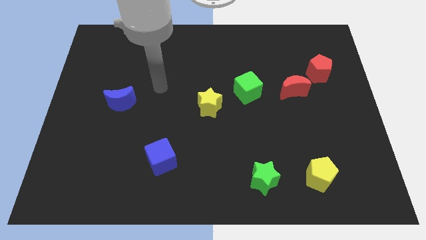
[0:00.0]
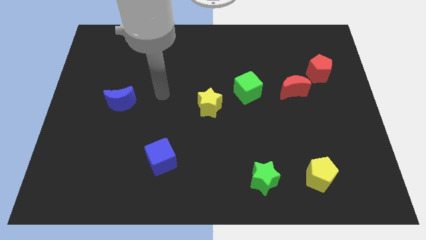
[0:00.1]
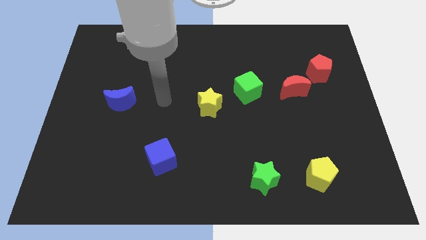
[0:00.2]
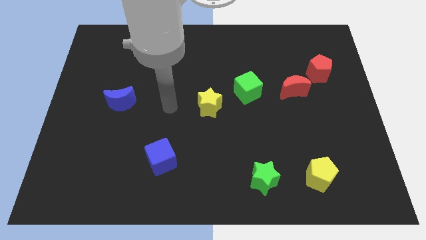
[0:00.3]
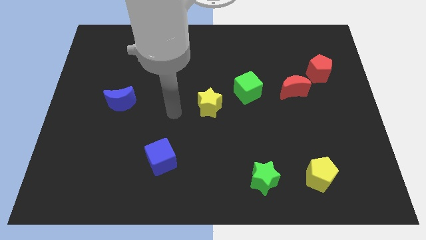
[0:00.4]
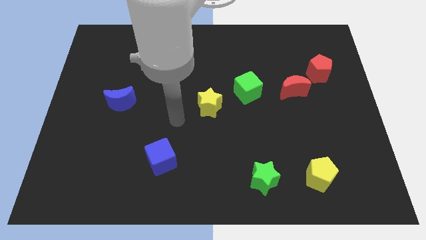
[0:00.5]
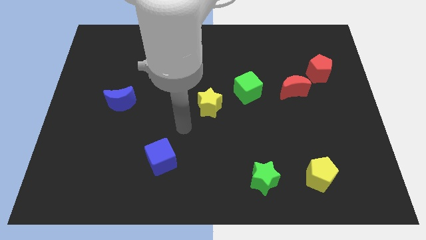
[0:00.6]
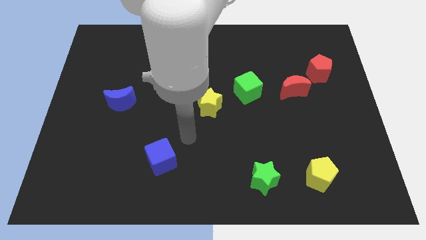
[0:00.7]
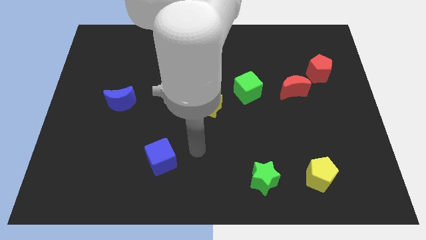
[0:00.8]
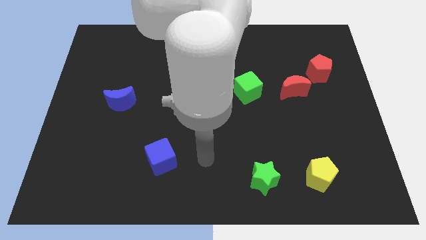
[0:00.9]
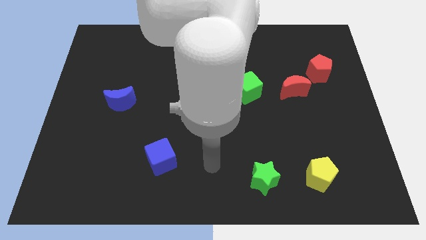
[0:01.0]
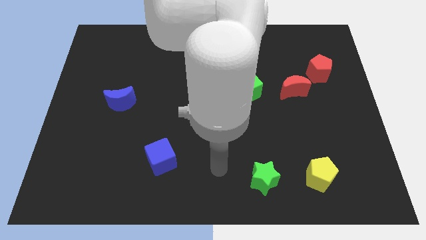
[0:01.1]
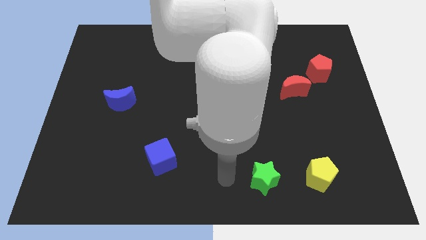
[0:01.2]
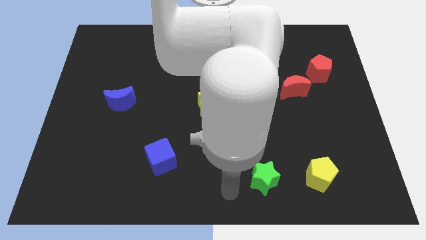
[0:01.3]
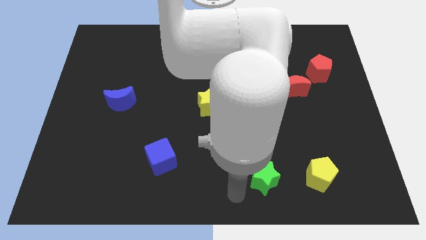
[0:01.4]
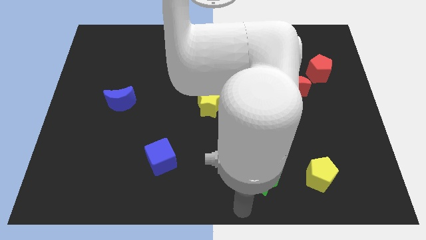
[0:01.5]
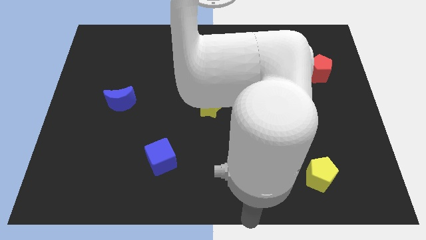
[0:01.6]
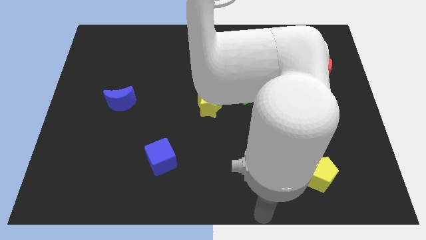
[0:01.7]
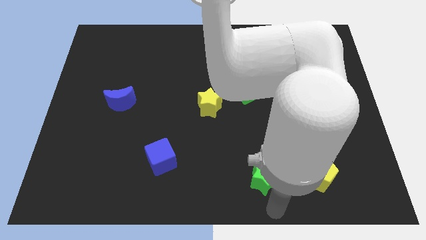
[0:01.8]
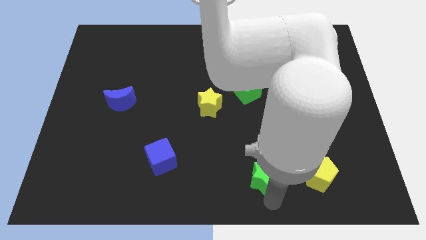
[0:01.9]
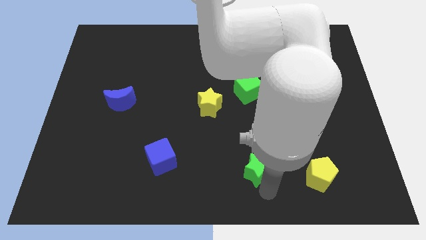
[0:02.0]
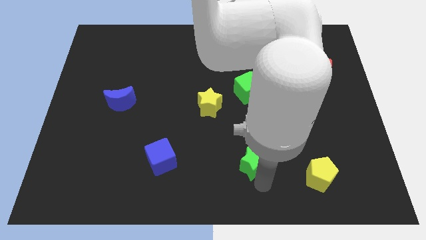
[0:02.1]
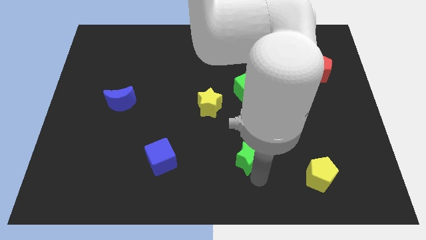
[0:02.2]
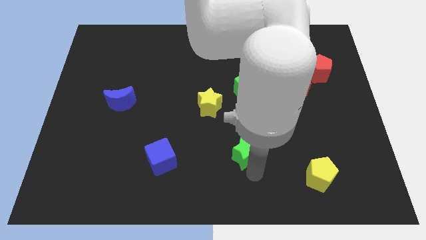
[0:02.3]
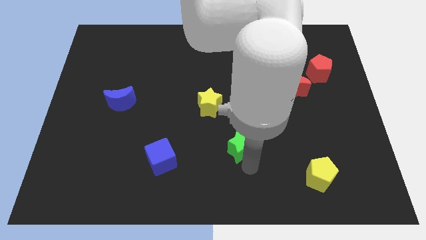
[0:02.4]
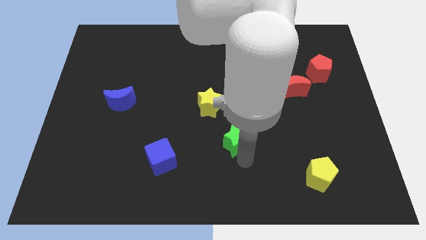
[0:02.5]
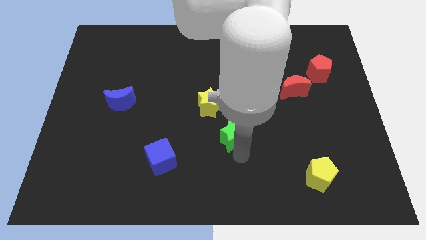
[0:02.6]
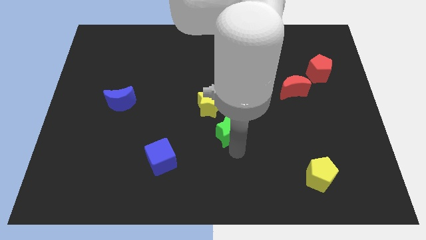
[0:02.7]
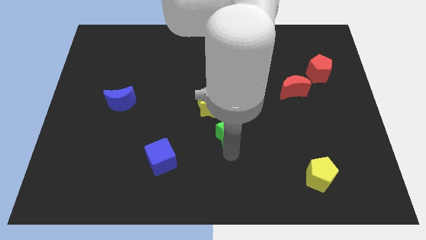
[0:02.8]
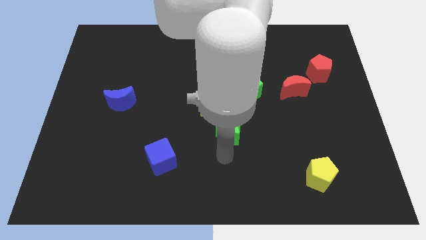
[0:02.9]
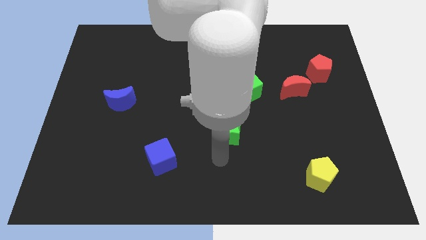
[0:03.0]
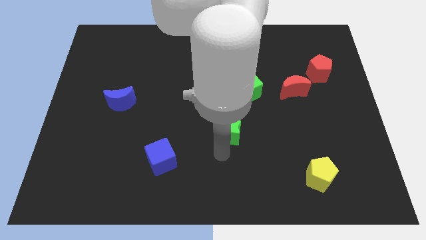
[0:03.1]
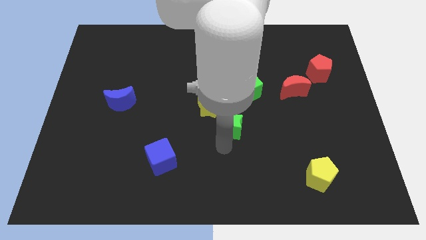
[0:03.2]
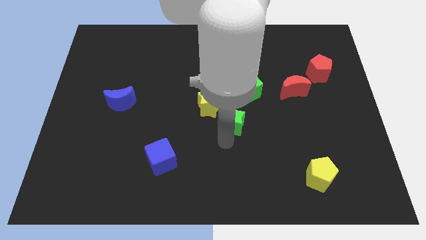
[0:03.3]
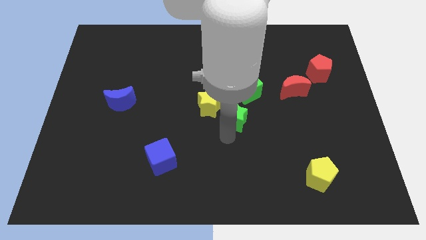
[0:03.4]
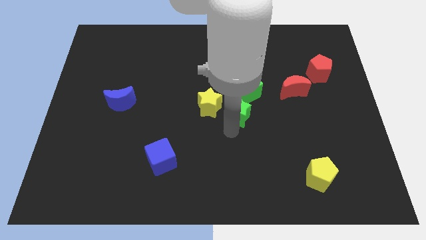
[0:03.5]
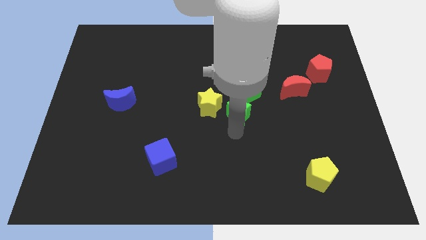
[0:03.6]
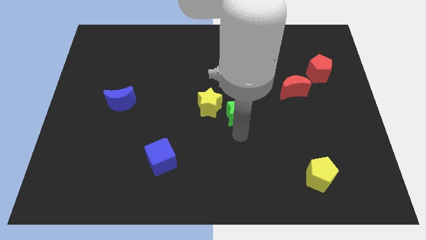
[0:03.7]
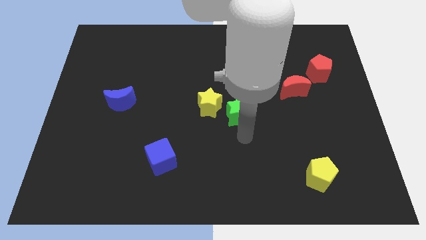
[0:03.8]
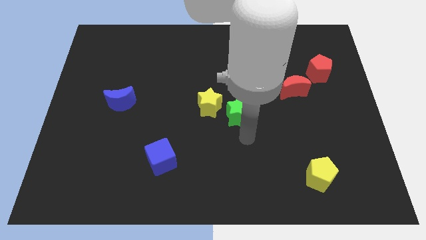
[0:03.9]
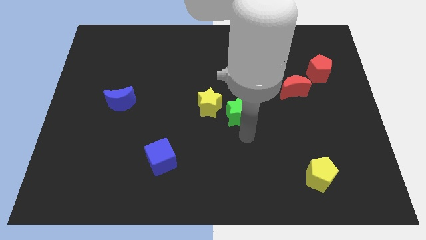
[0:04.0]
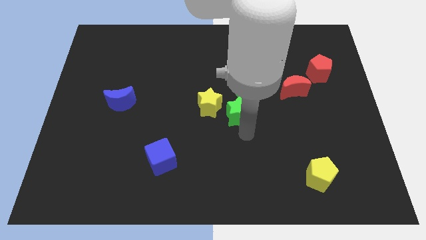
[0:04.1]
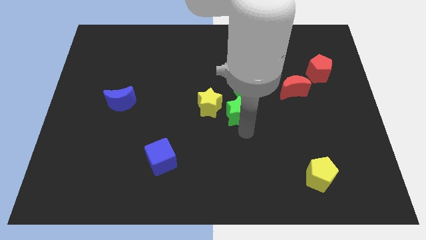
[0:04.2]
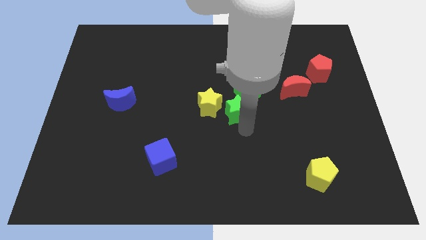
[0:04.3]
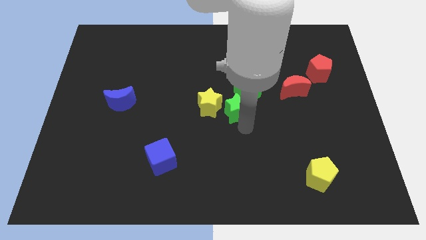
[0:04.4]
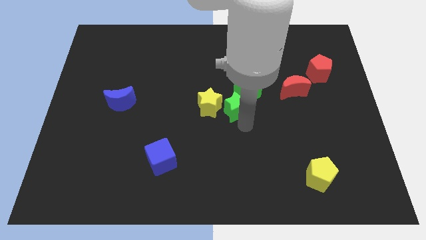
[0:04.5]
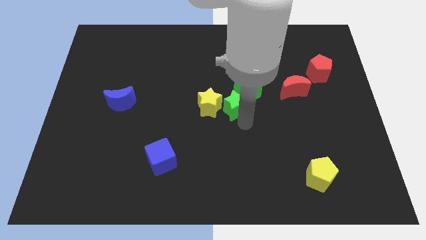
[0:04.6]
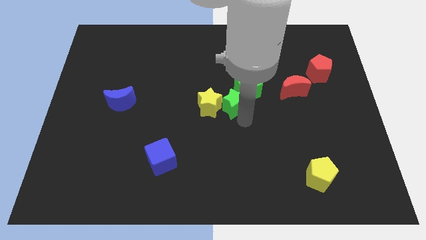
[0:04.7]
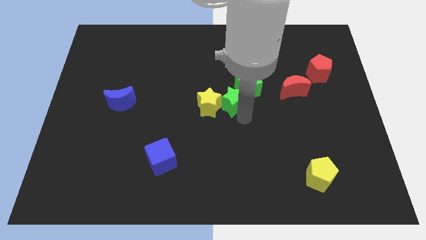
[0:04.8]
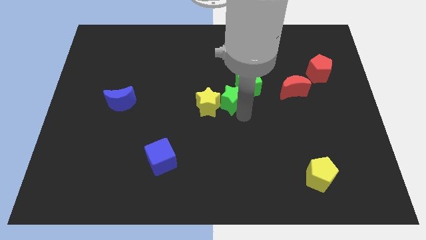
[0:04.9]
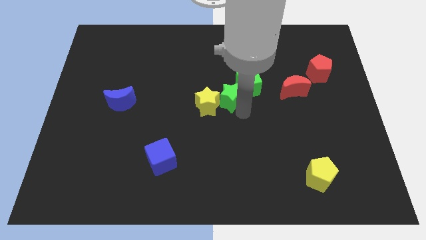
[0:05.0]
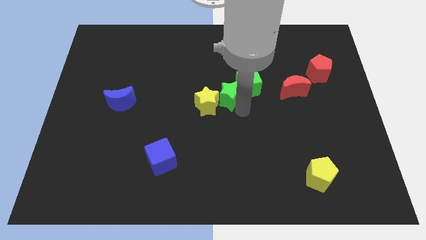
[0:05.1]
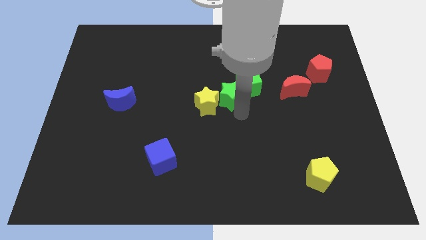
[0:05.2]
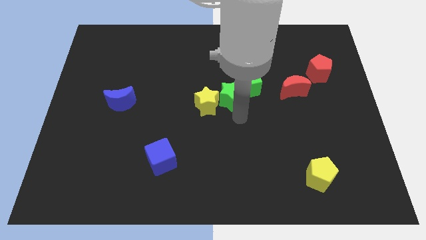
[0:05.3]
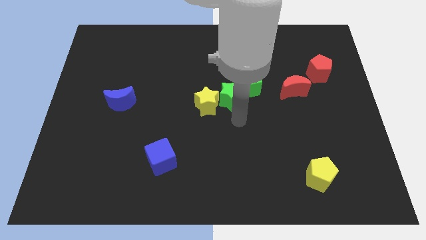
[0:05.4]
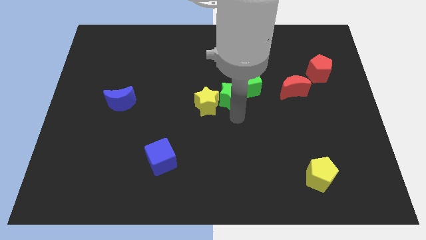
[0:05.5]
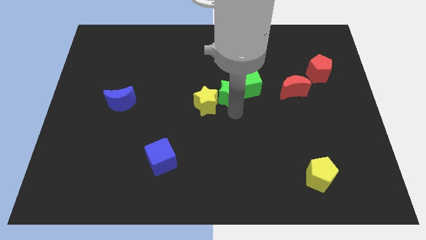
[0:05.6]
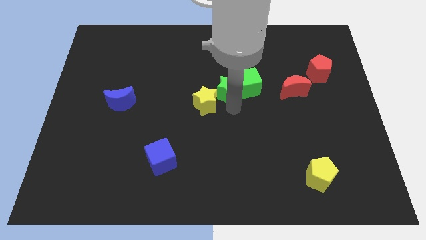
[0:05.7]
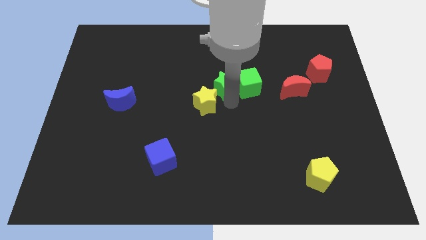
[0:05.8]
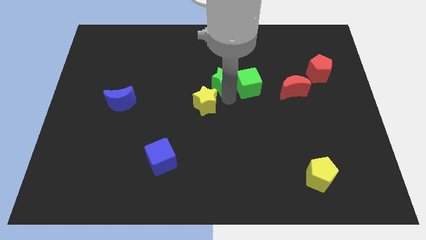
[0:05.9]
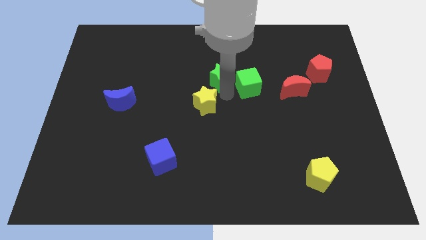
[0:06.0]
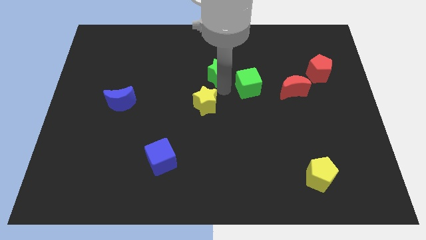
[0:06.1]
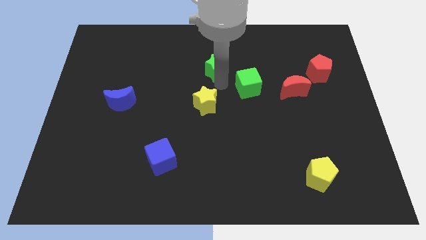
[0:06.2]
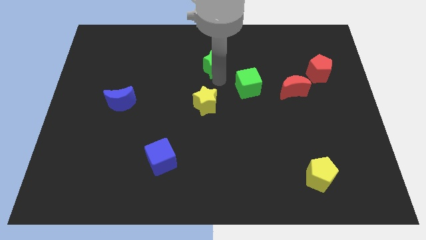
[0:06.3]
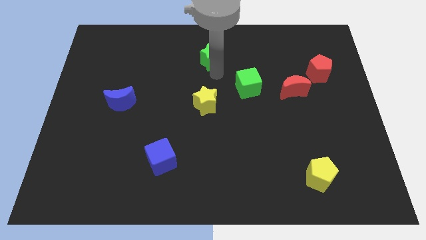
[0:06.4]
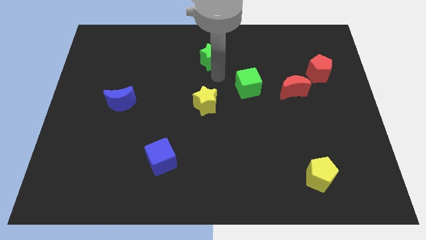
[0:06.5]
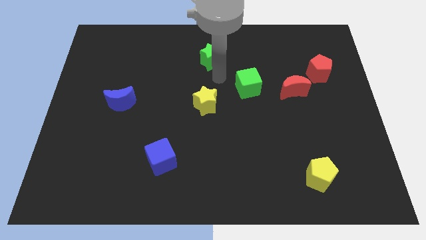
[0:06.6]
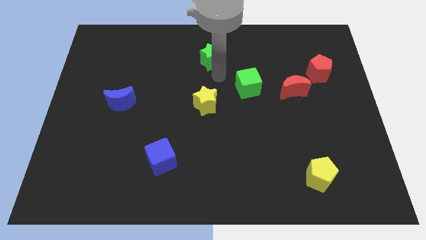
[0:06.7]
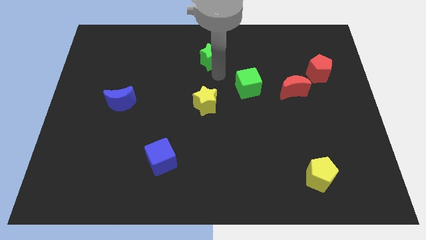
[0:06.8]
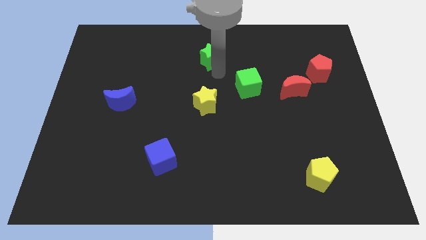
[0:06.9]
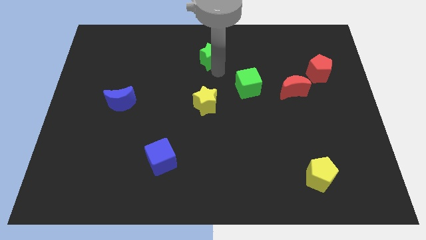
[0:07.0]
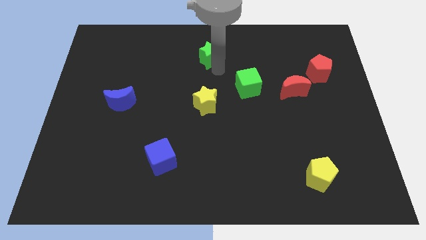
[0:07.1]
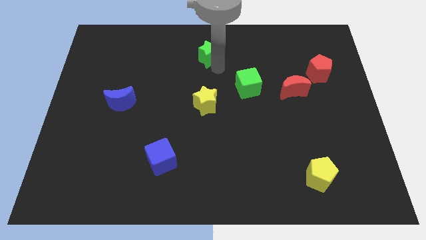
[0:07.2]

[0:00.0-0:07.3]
move the green star to the towards your base
